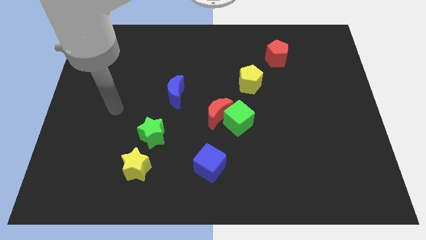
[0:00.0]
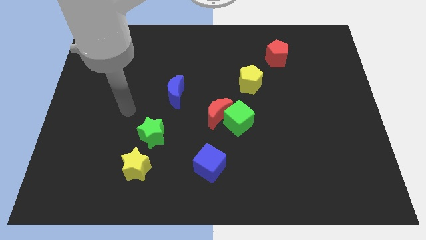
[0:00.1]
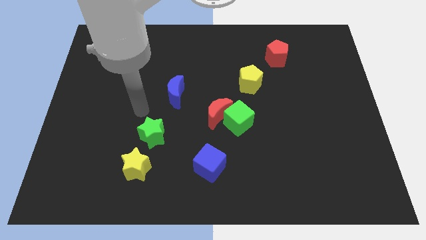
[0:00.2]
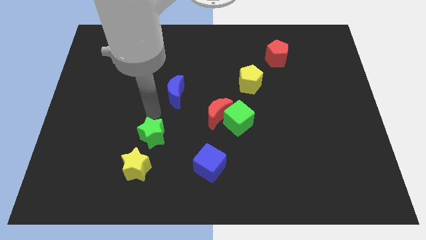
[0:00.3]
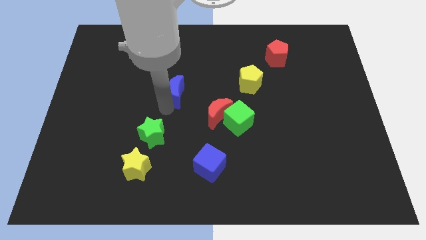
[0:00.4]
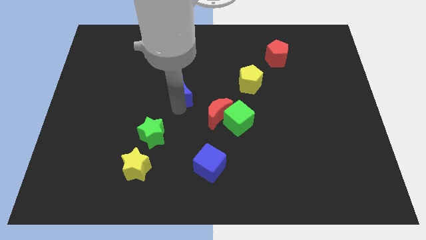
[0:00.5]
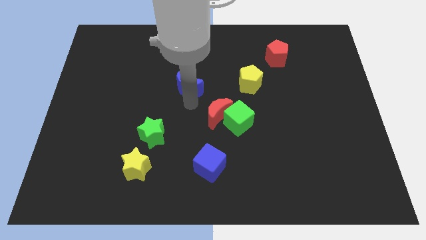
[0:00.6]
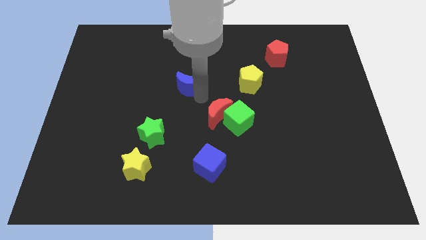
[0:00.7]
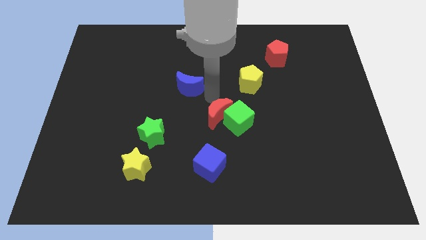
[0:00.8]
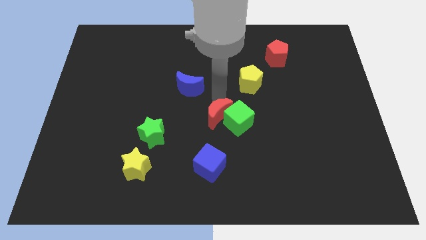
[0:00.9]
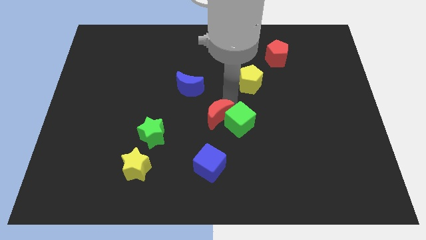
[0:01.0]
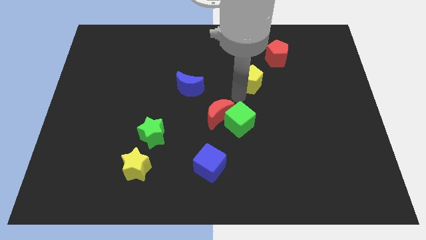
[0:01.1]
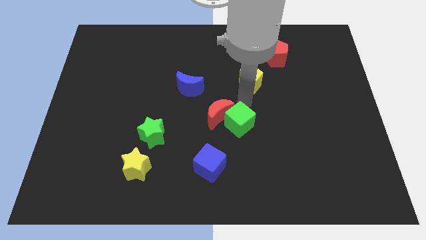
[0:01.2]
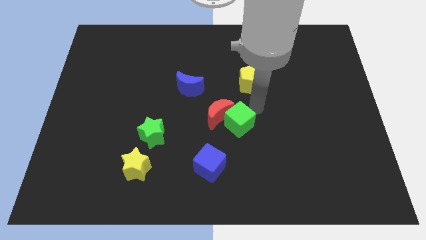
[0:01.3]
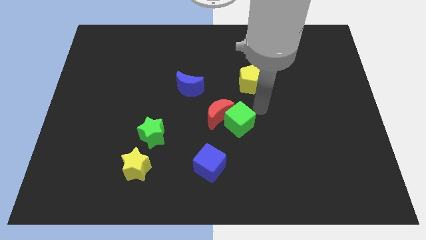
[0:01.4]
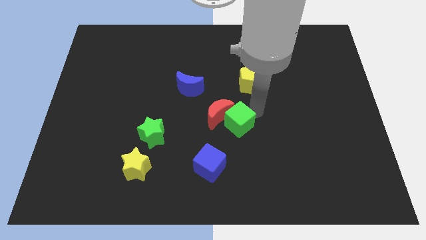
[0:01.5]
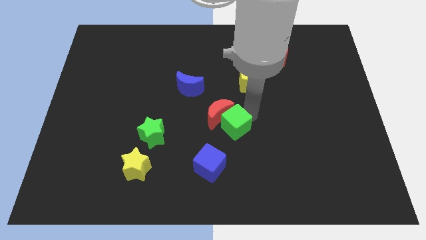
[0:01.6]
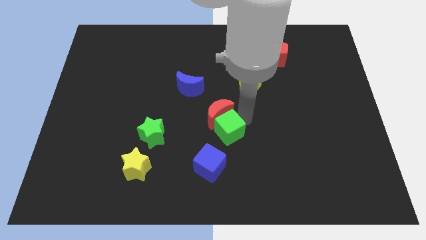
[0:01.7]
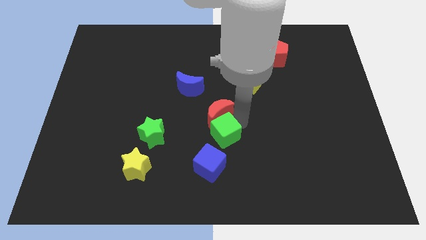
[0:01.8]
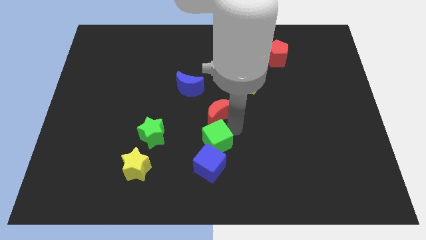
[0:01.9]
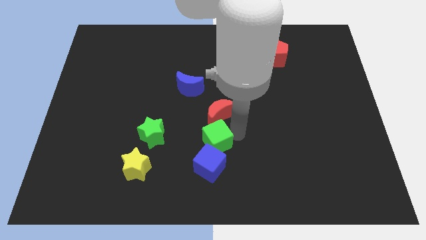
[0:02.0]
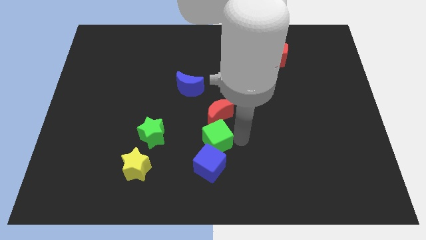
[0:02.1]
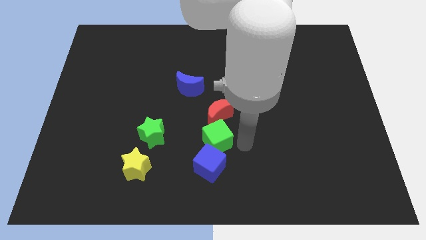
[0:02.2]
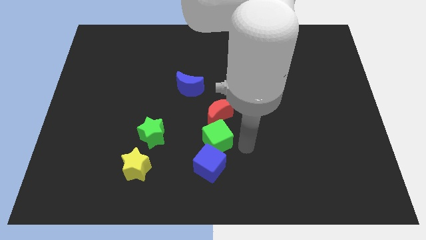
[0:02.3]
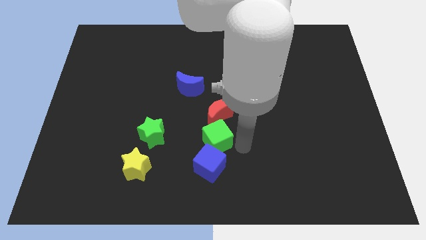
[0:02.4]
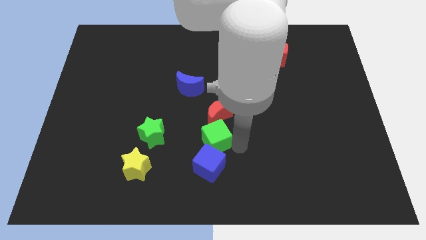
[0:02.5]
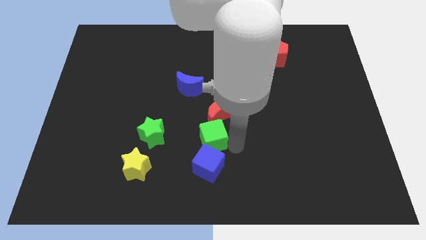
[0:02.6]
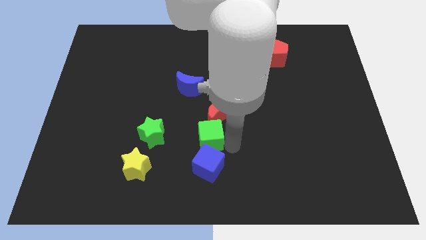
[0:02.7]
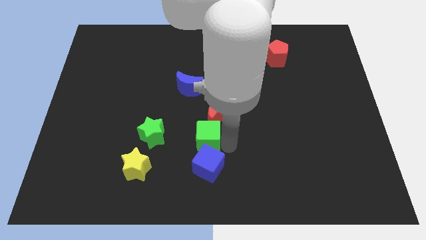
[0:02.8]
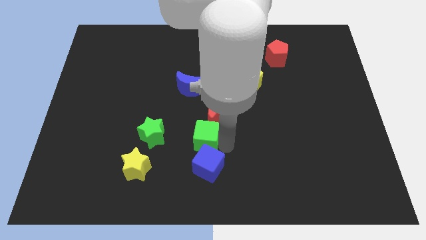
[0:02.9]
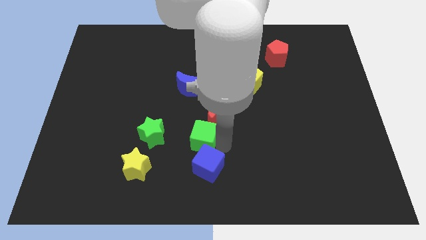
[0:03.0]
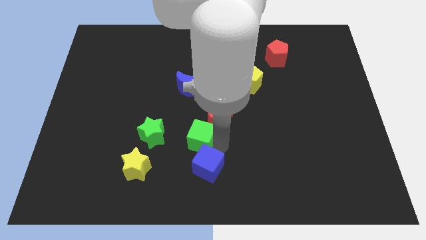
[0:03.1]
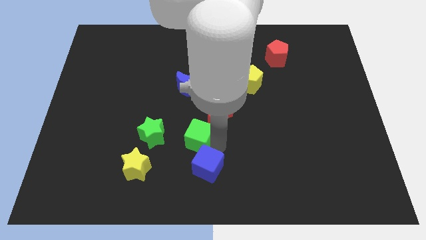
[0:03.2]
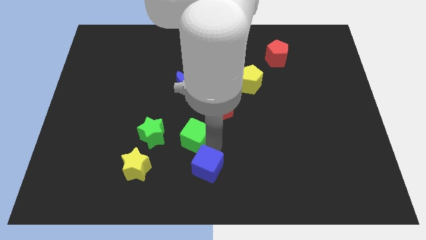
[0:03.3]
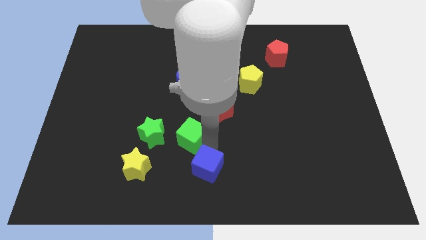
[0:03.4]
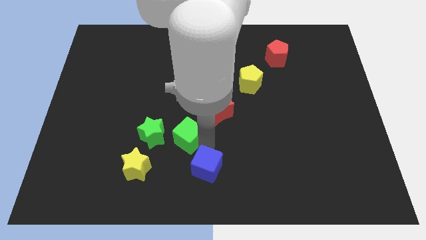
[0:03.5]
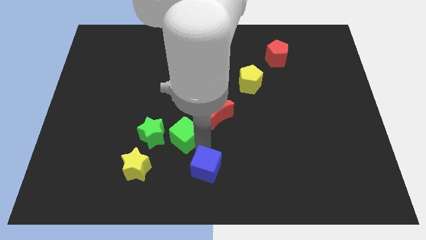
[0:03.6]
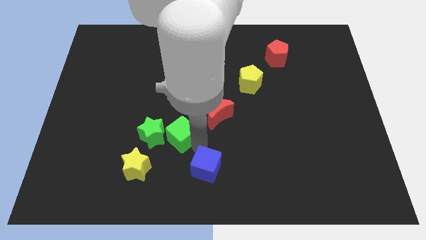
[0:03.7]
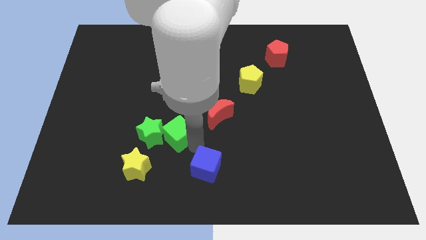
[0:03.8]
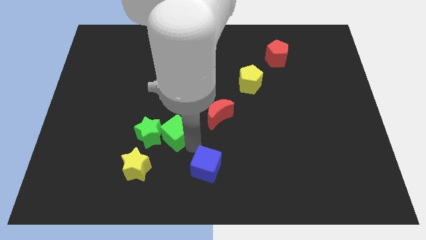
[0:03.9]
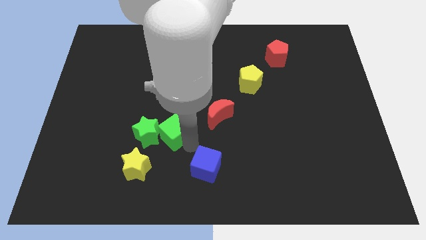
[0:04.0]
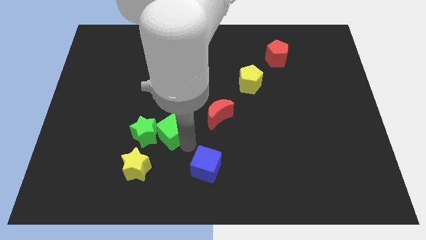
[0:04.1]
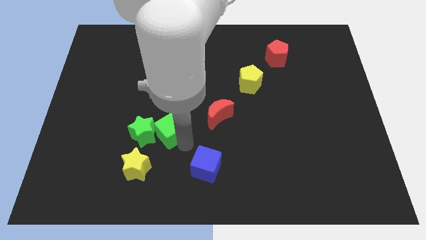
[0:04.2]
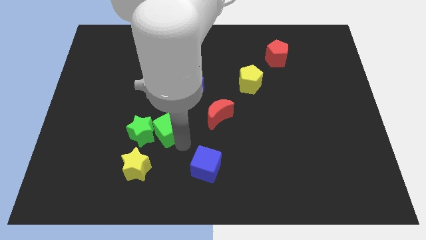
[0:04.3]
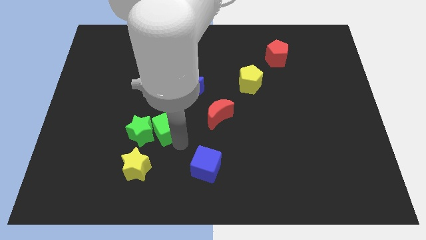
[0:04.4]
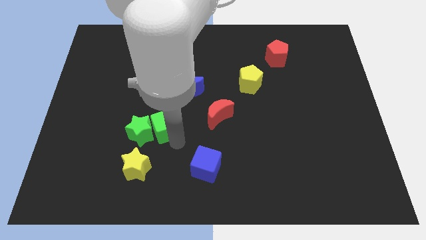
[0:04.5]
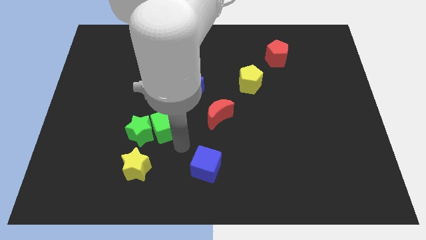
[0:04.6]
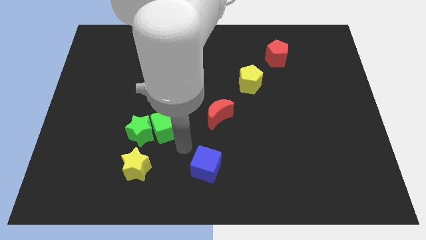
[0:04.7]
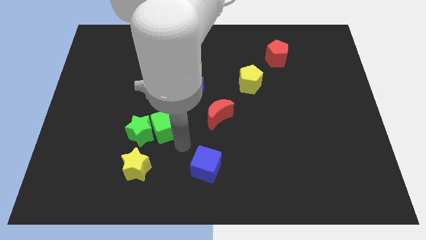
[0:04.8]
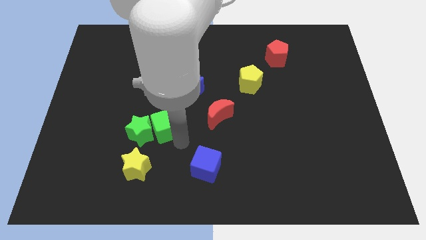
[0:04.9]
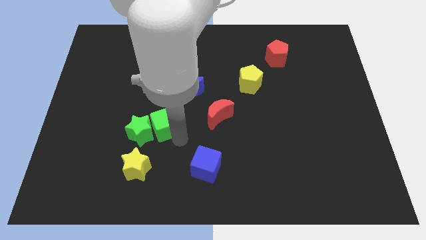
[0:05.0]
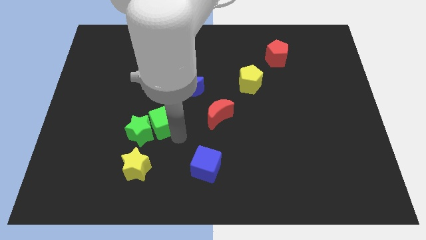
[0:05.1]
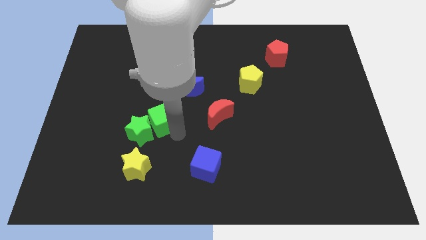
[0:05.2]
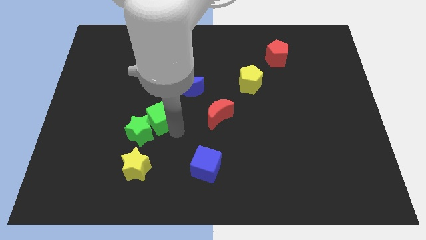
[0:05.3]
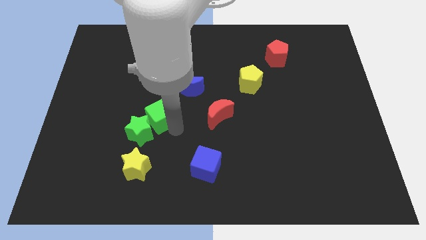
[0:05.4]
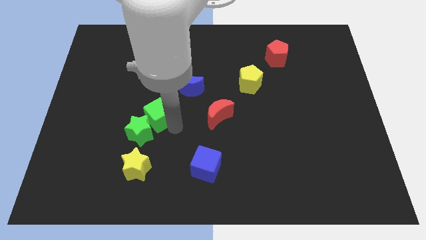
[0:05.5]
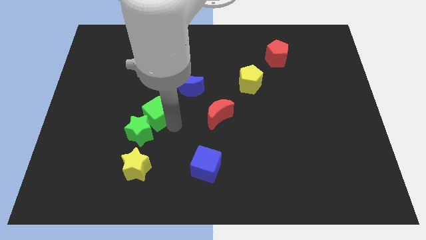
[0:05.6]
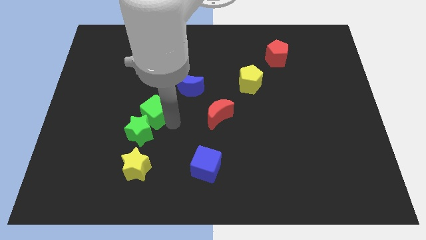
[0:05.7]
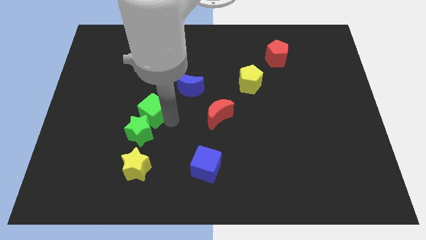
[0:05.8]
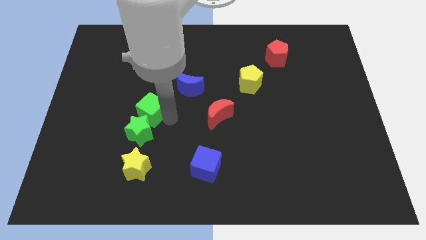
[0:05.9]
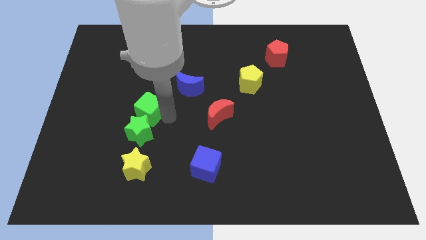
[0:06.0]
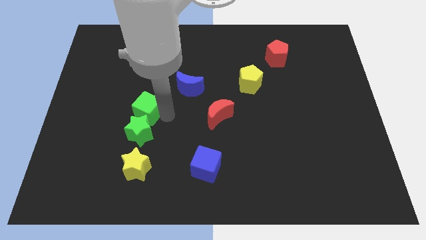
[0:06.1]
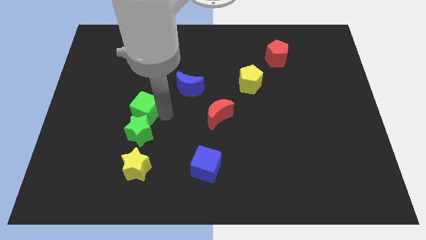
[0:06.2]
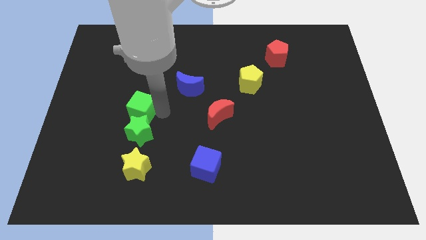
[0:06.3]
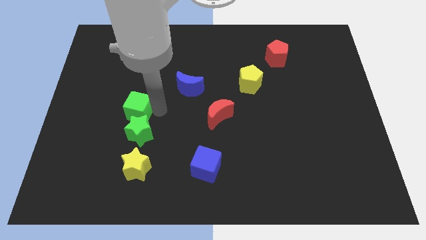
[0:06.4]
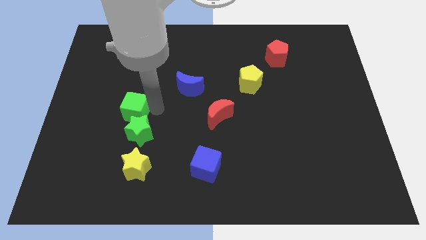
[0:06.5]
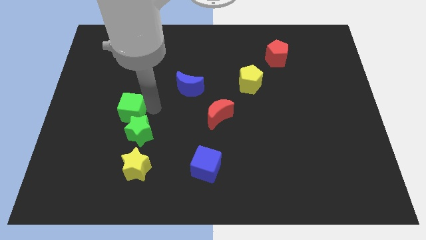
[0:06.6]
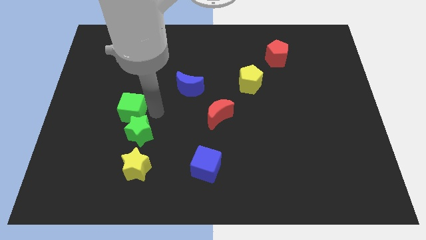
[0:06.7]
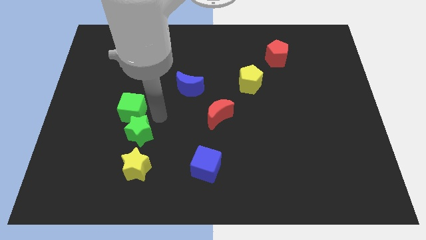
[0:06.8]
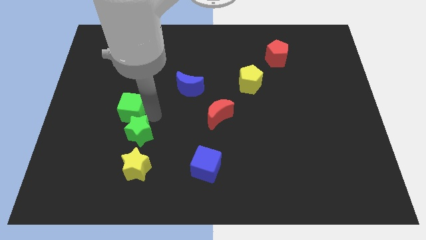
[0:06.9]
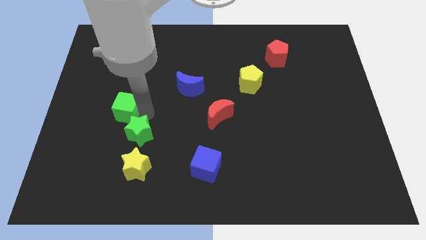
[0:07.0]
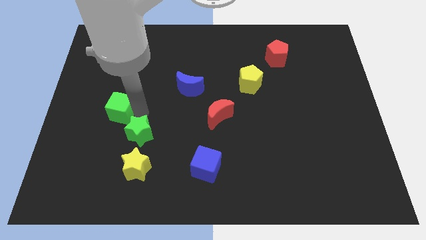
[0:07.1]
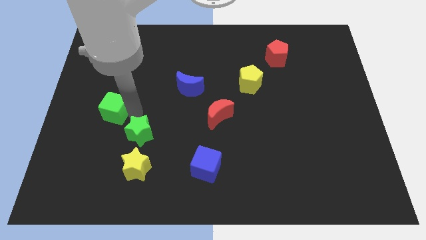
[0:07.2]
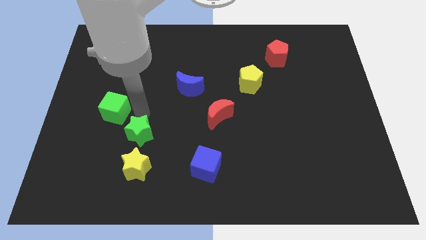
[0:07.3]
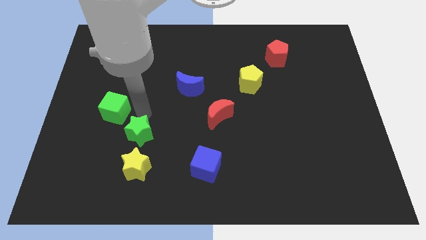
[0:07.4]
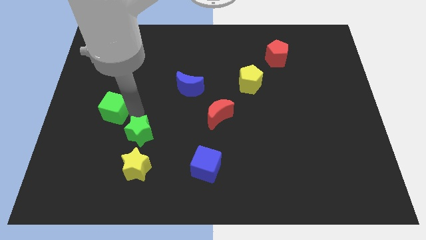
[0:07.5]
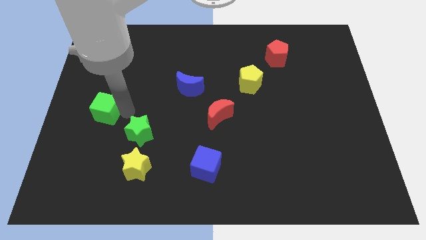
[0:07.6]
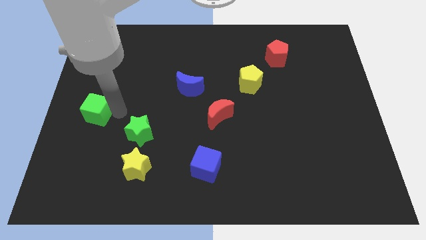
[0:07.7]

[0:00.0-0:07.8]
slide the green cube to the left side of the board
